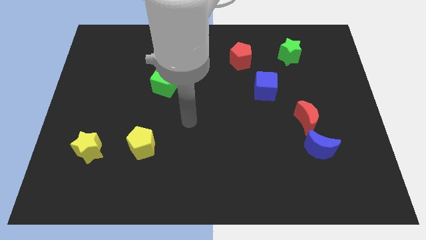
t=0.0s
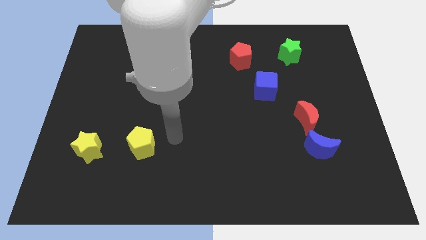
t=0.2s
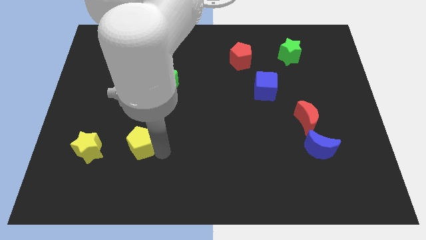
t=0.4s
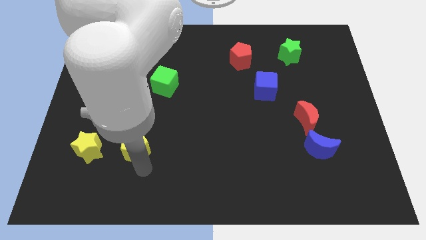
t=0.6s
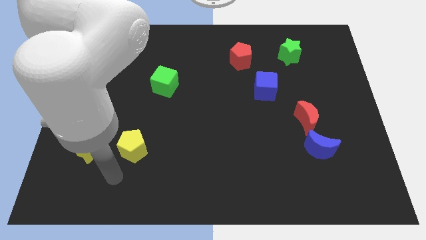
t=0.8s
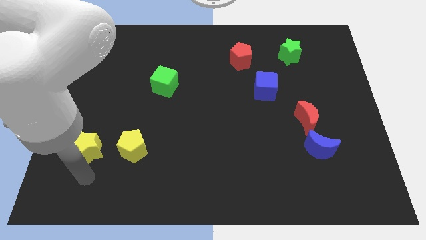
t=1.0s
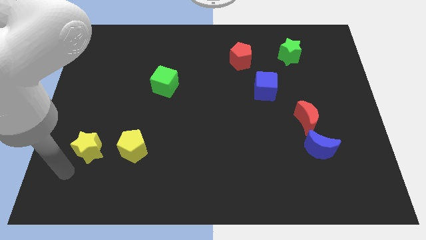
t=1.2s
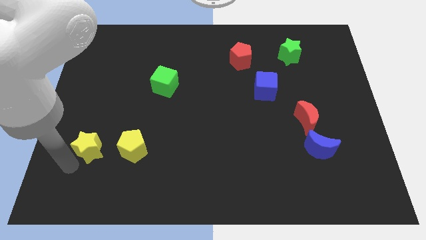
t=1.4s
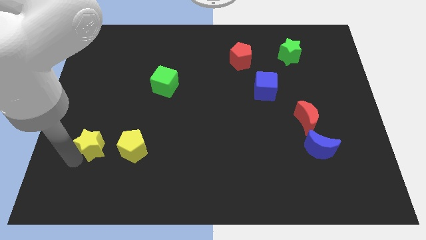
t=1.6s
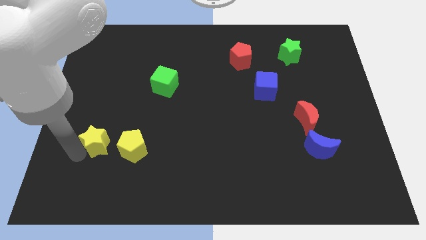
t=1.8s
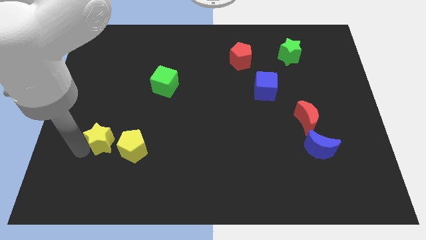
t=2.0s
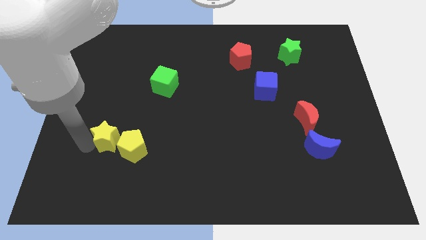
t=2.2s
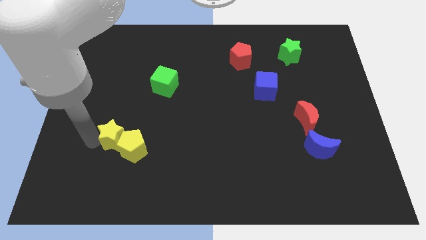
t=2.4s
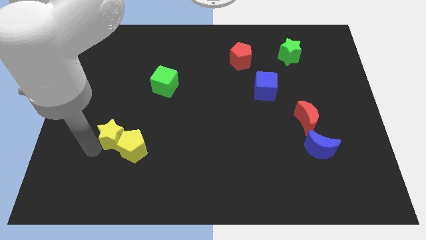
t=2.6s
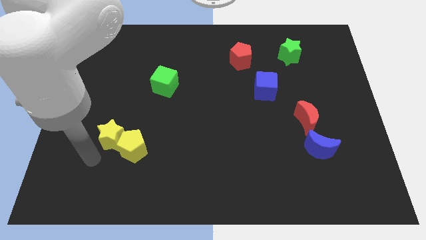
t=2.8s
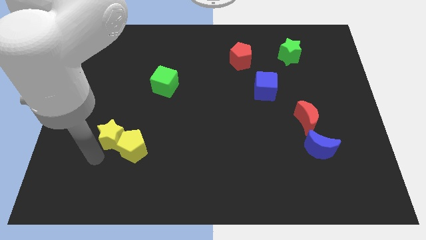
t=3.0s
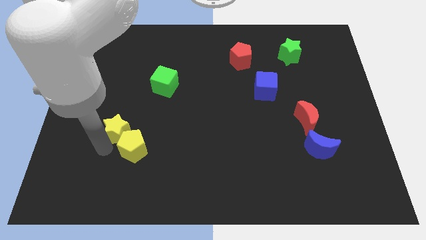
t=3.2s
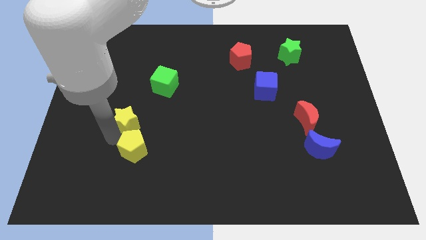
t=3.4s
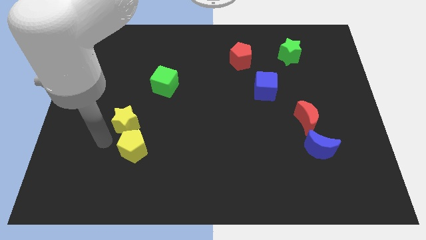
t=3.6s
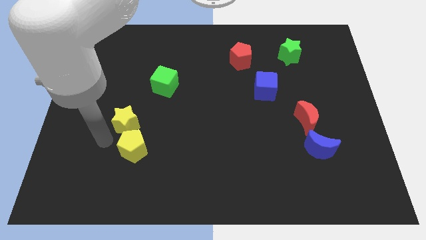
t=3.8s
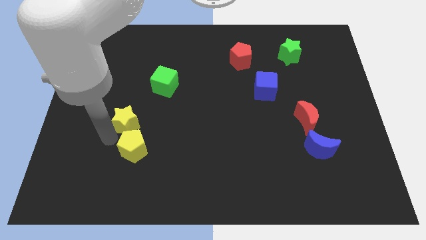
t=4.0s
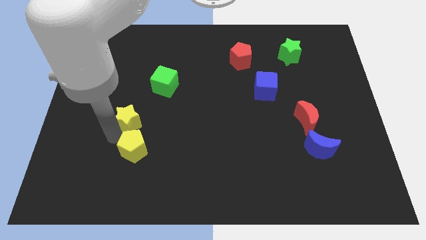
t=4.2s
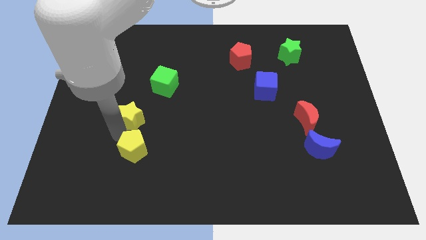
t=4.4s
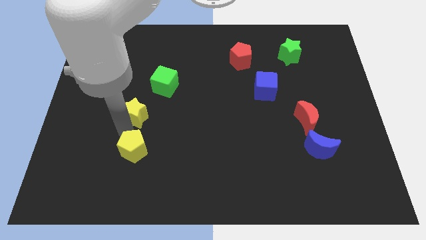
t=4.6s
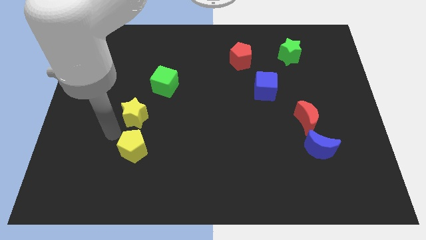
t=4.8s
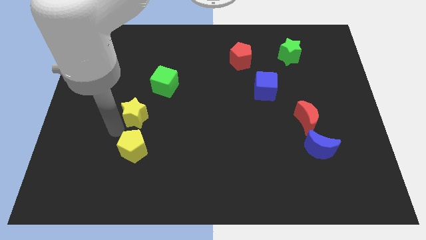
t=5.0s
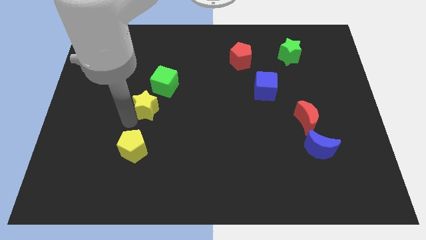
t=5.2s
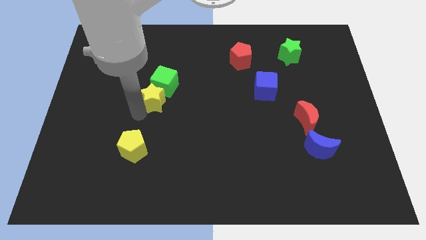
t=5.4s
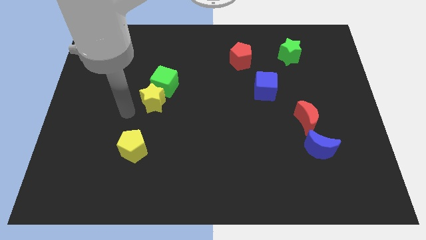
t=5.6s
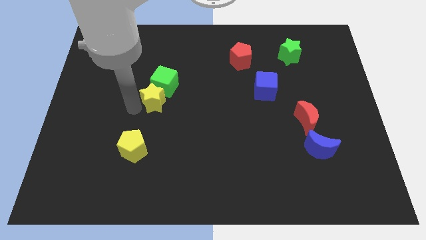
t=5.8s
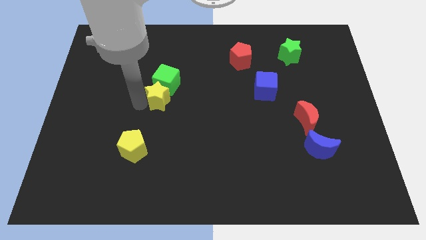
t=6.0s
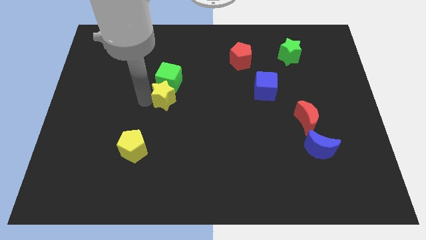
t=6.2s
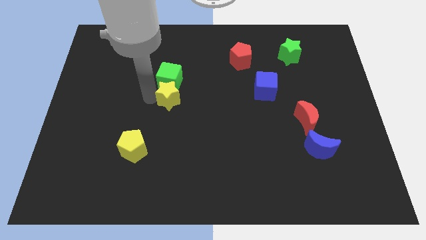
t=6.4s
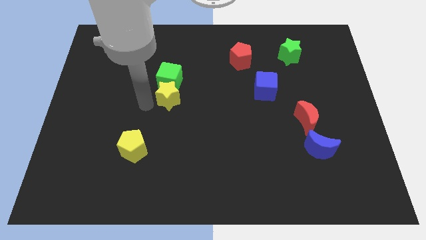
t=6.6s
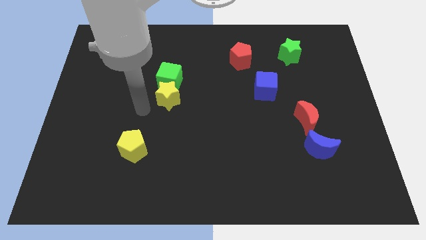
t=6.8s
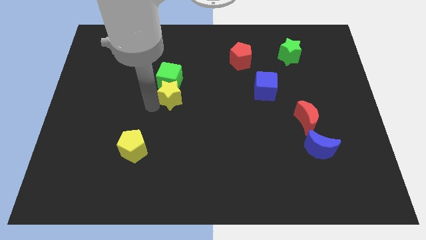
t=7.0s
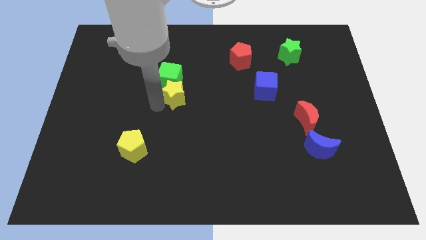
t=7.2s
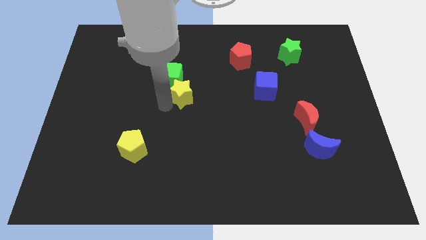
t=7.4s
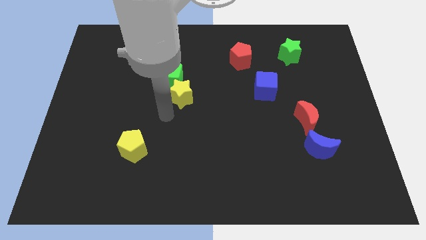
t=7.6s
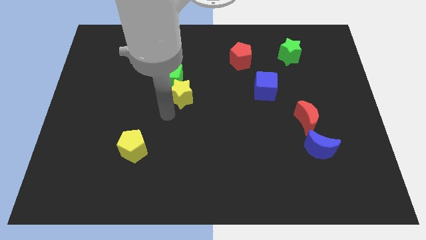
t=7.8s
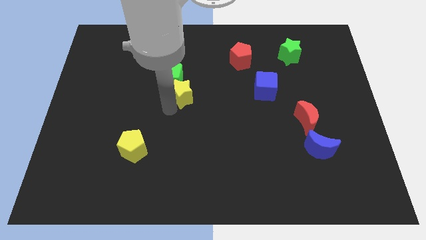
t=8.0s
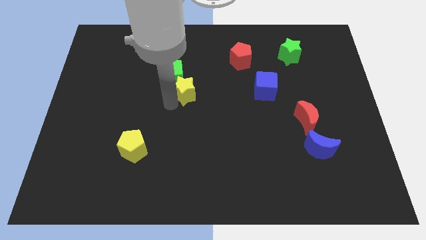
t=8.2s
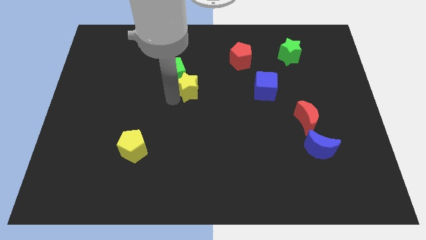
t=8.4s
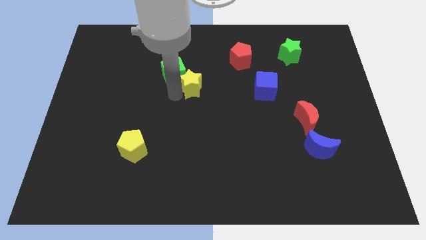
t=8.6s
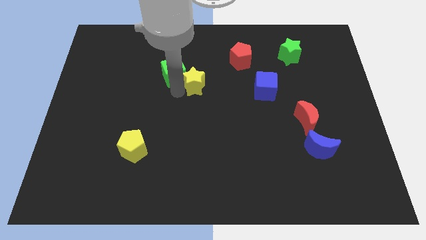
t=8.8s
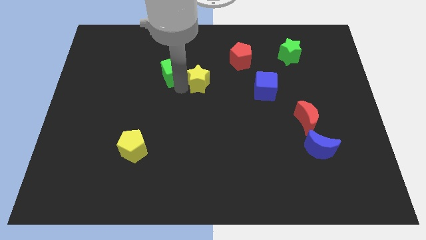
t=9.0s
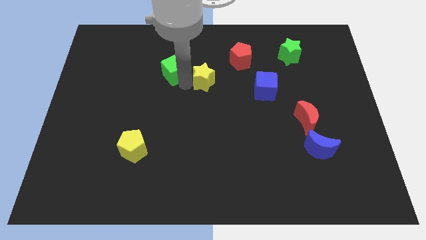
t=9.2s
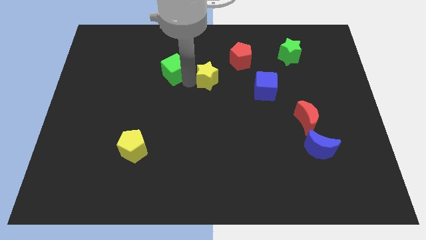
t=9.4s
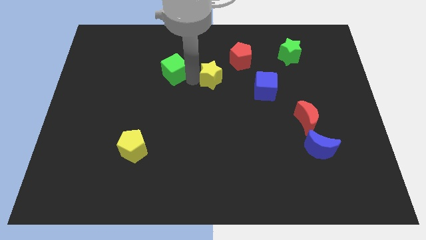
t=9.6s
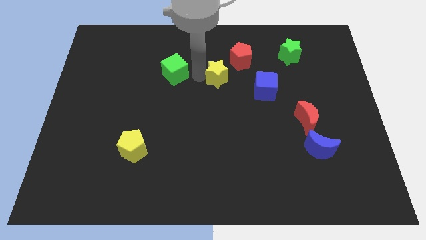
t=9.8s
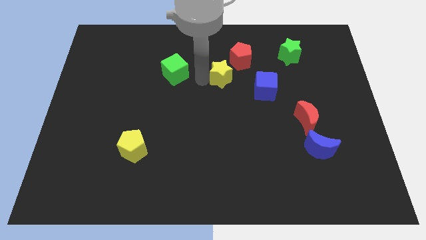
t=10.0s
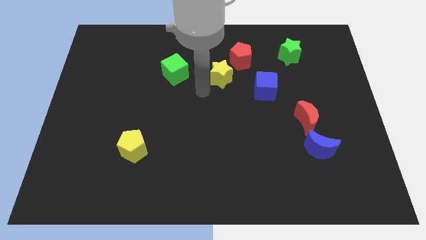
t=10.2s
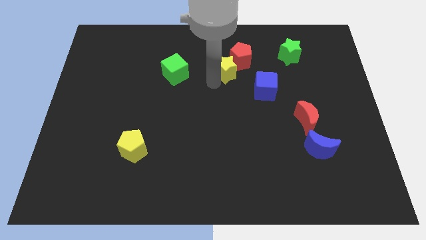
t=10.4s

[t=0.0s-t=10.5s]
put the yellow star towards the red pentagon

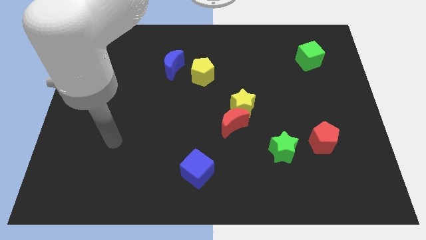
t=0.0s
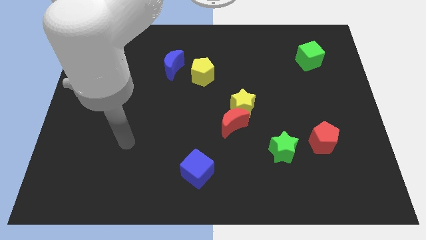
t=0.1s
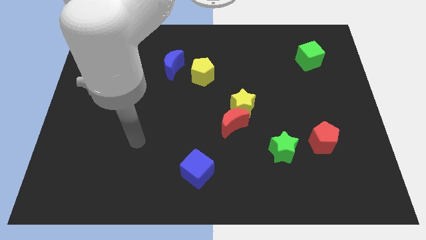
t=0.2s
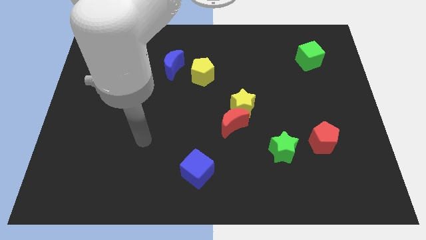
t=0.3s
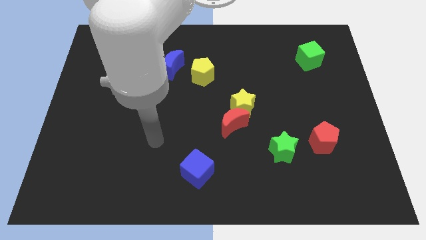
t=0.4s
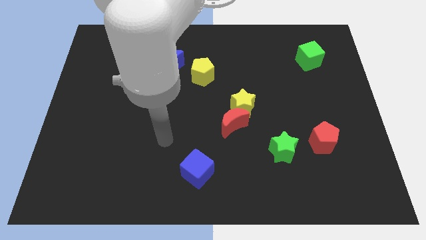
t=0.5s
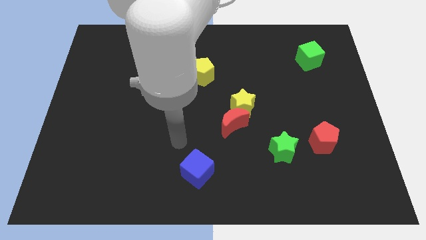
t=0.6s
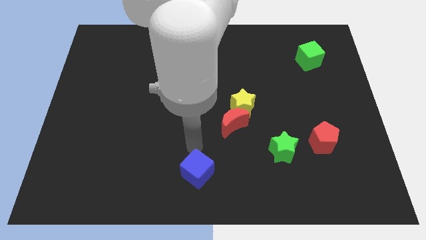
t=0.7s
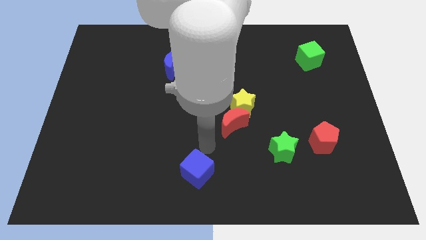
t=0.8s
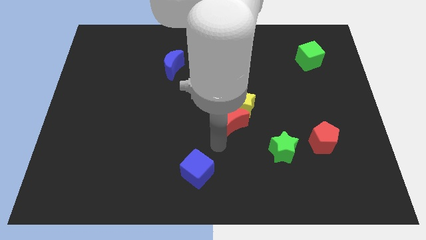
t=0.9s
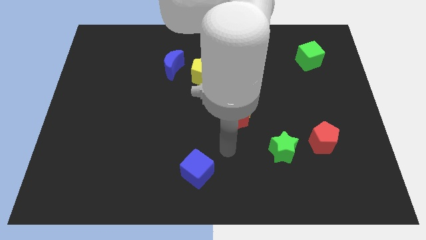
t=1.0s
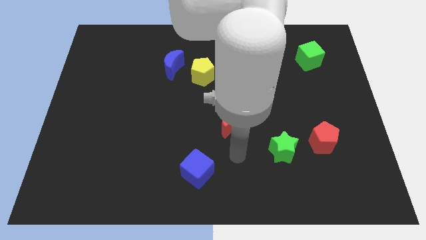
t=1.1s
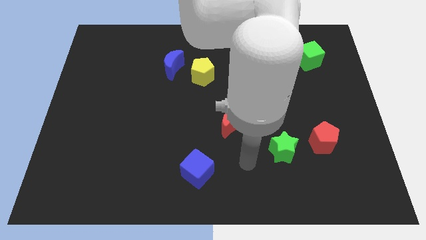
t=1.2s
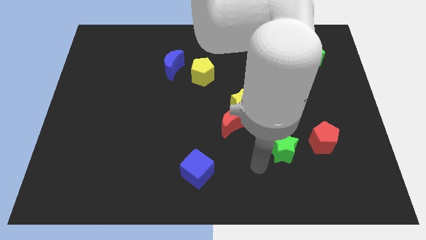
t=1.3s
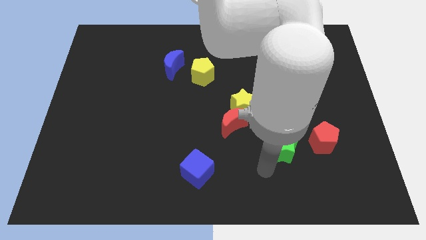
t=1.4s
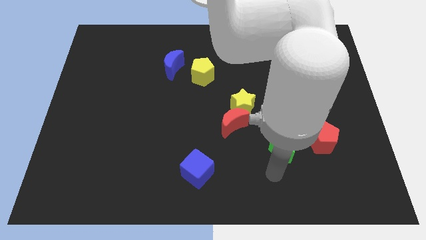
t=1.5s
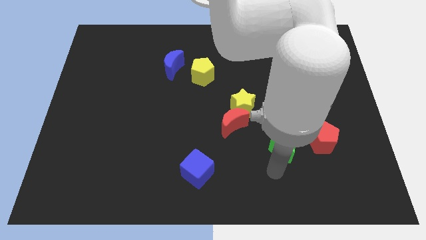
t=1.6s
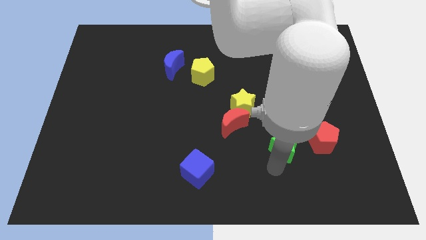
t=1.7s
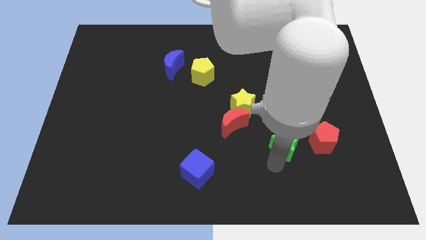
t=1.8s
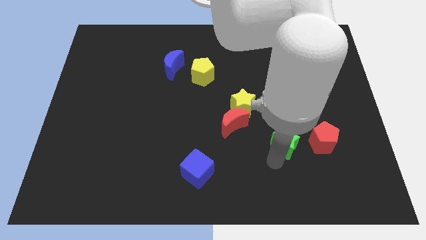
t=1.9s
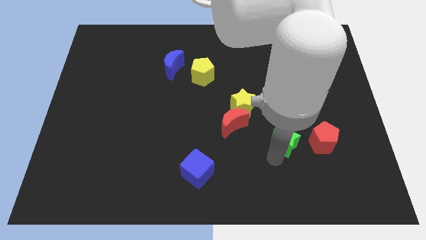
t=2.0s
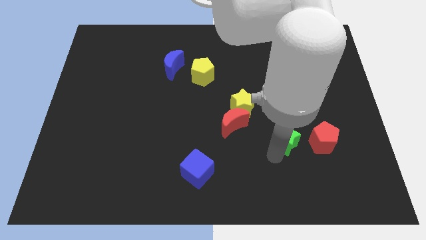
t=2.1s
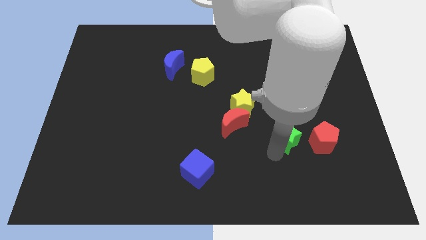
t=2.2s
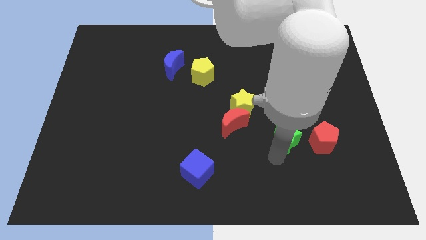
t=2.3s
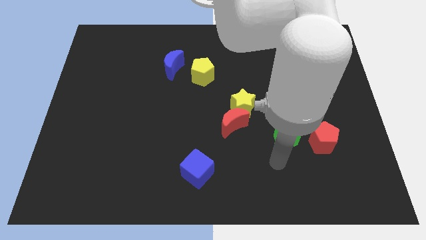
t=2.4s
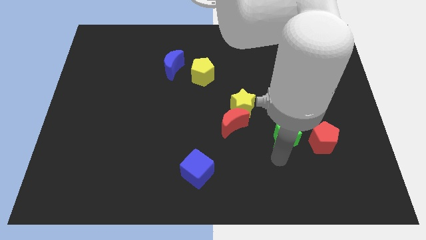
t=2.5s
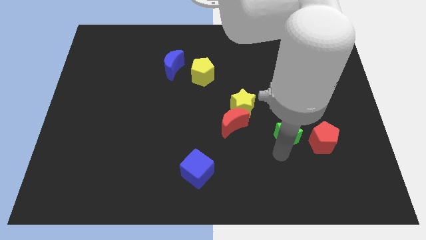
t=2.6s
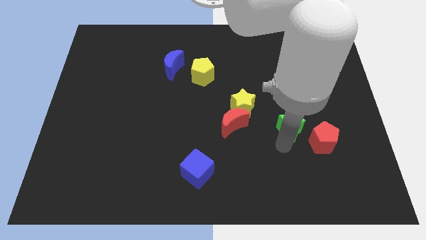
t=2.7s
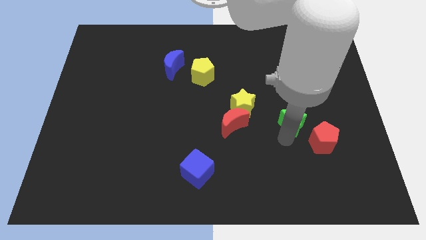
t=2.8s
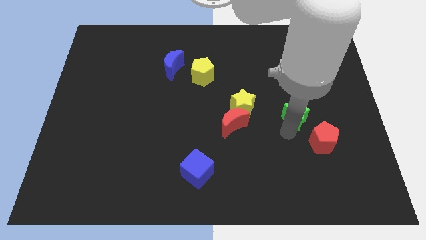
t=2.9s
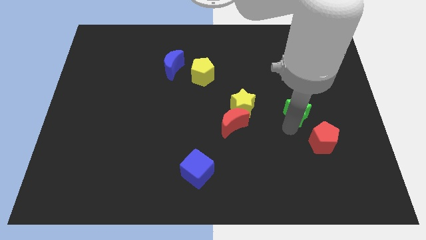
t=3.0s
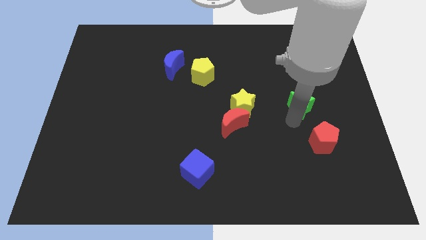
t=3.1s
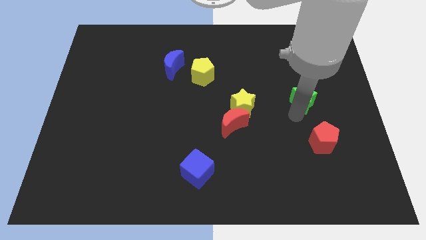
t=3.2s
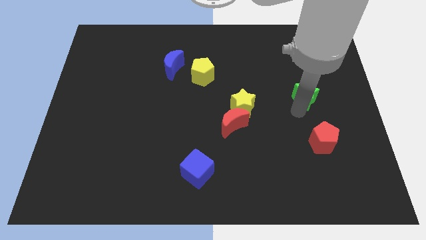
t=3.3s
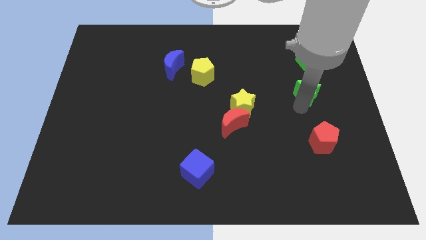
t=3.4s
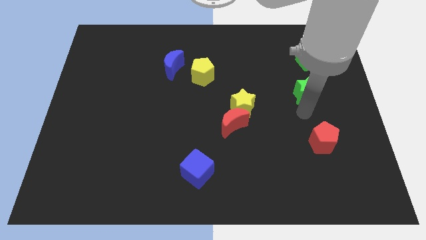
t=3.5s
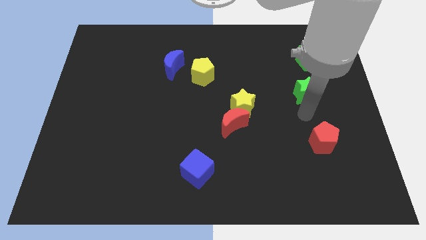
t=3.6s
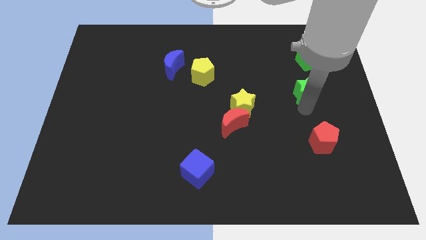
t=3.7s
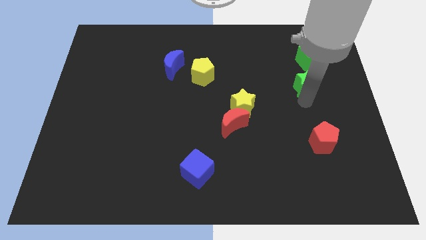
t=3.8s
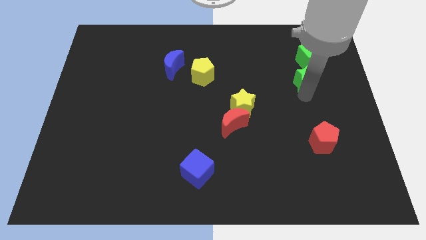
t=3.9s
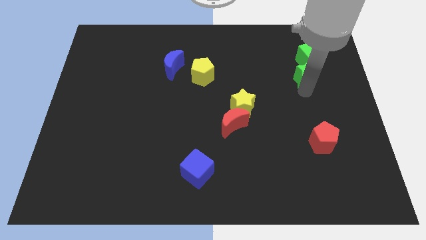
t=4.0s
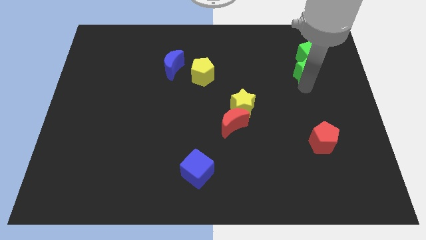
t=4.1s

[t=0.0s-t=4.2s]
push the green star close to the green cube
